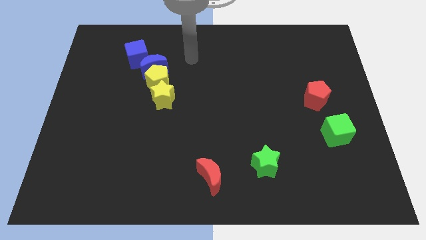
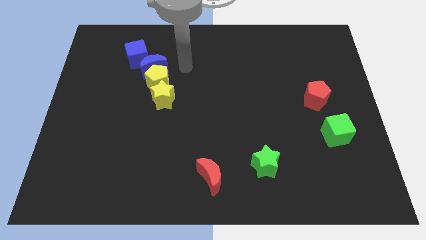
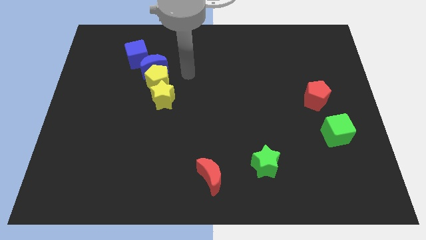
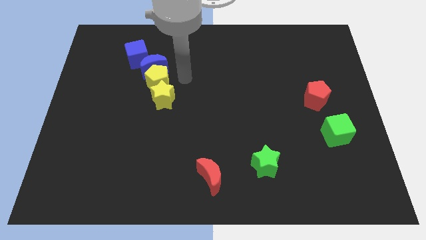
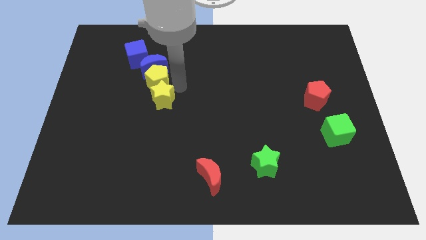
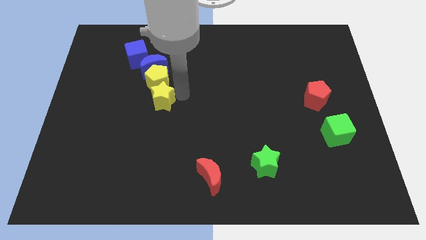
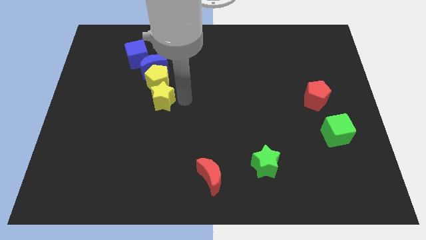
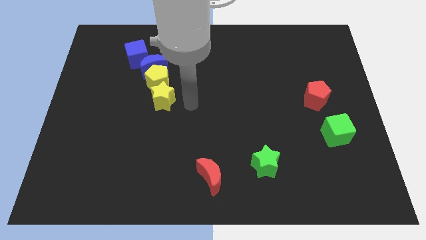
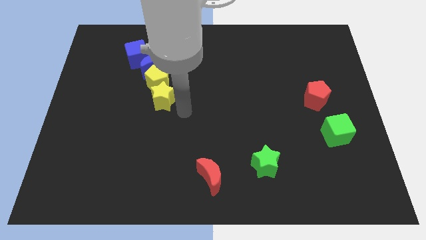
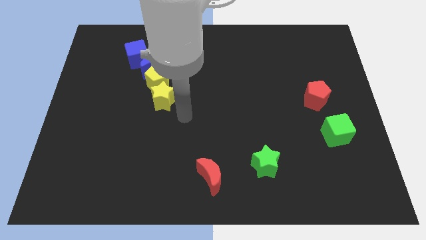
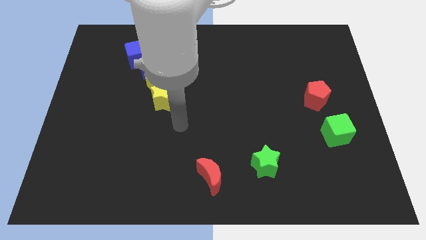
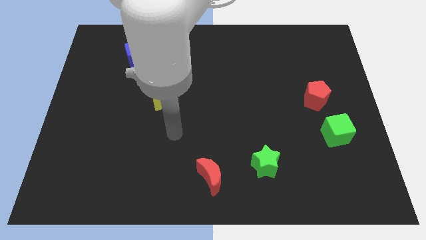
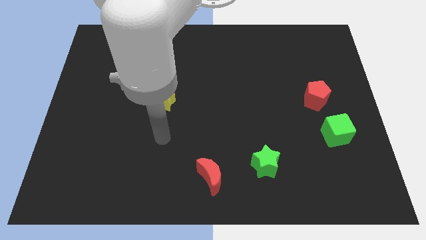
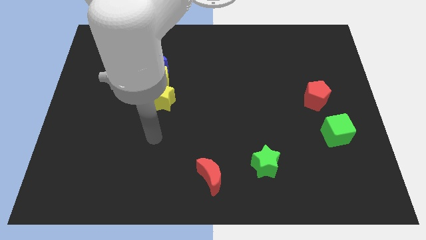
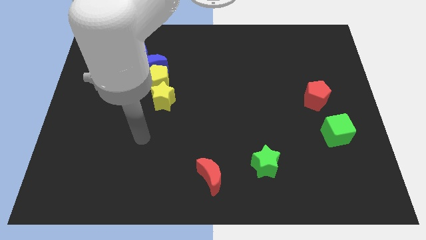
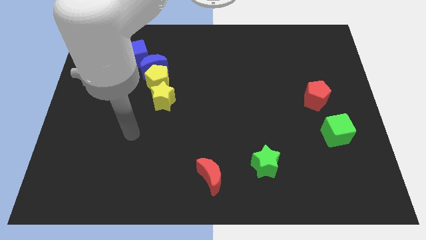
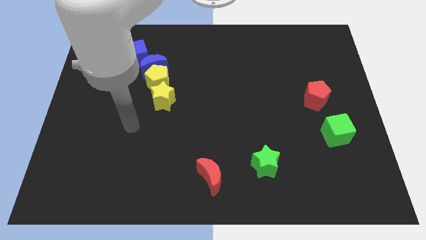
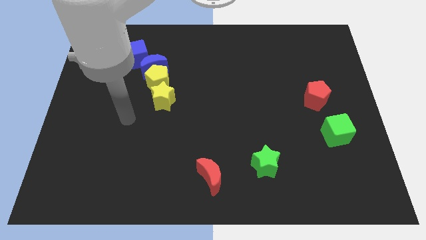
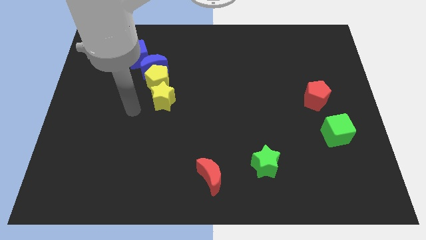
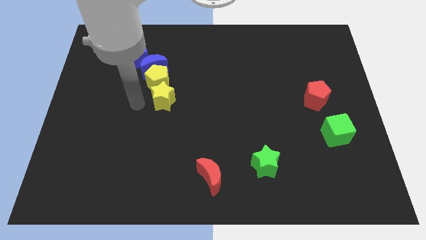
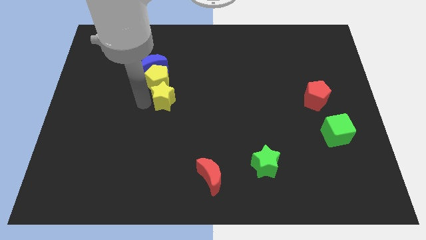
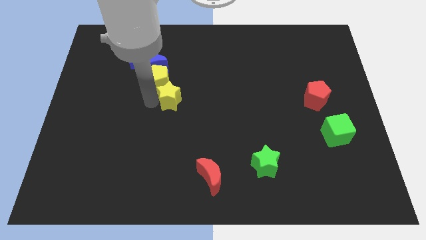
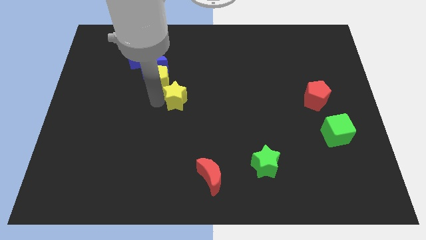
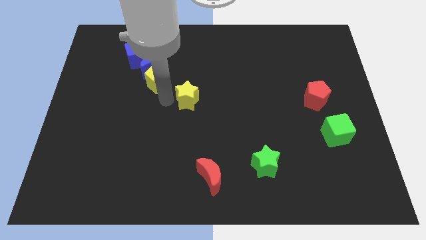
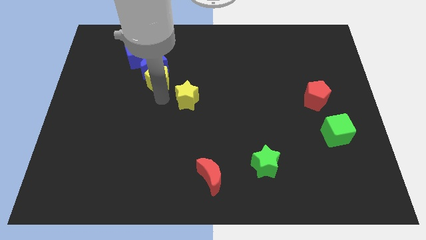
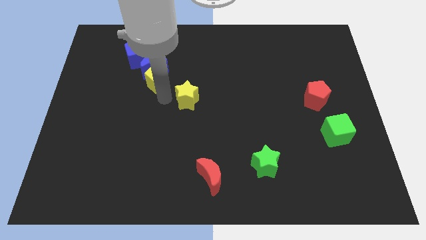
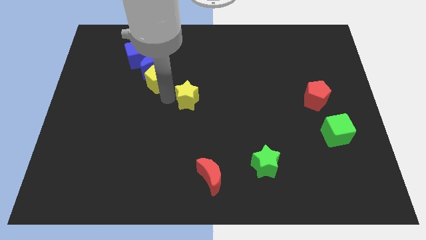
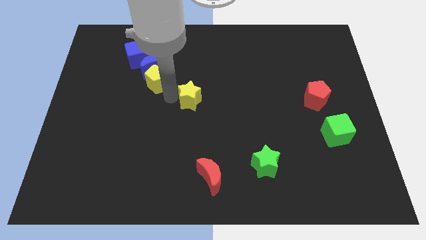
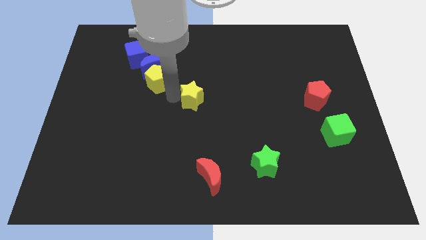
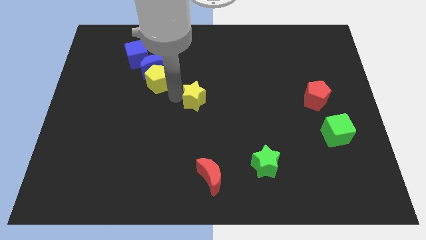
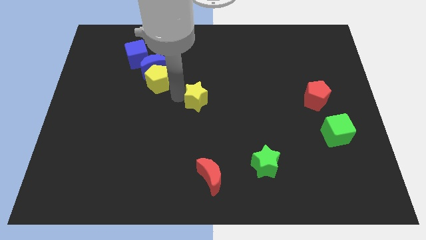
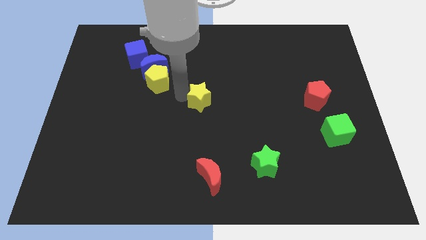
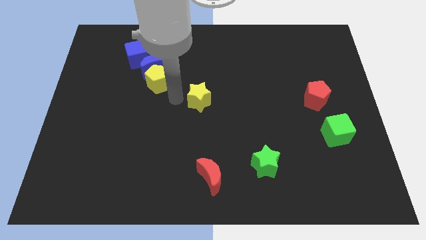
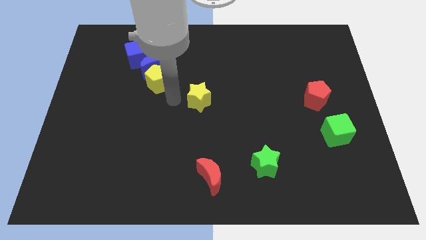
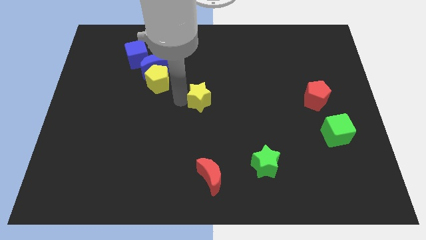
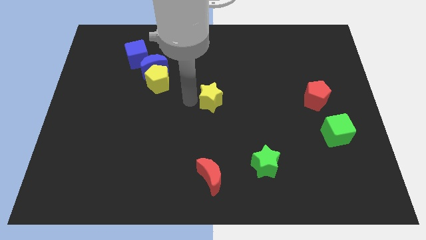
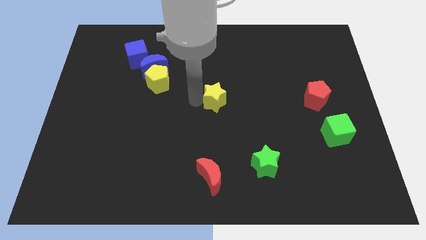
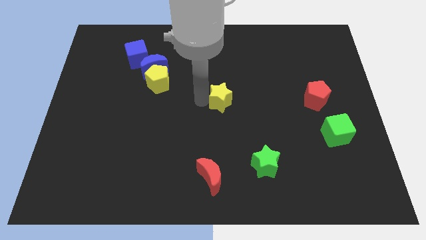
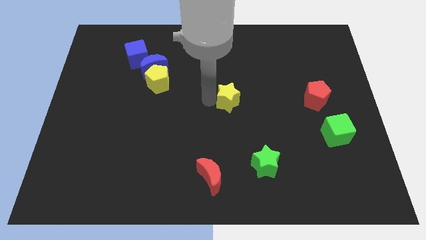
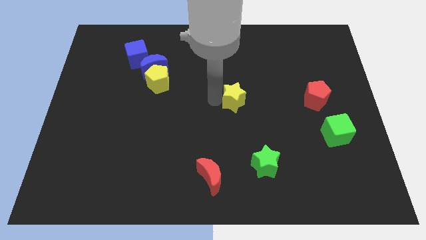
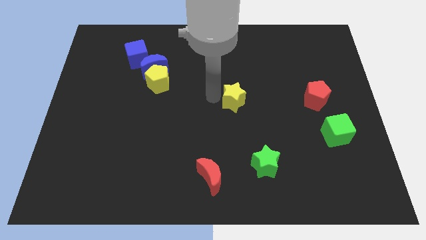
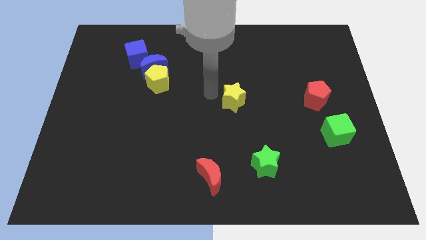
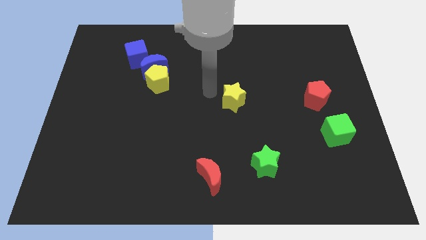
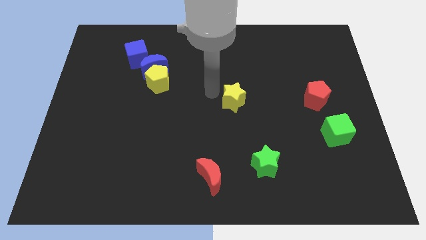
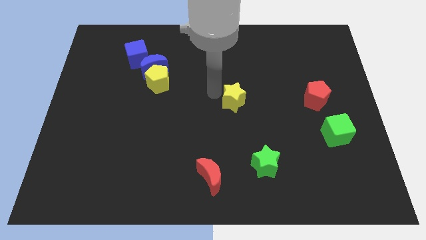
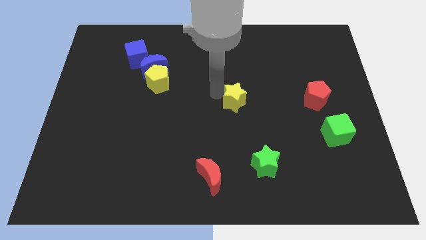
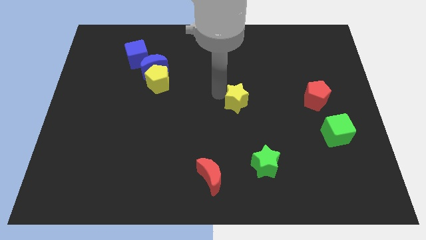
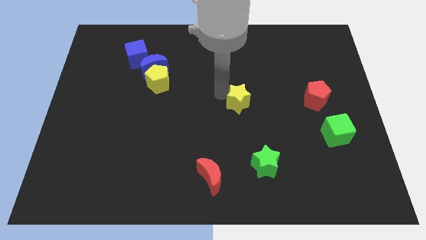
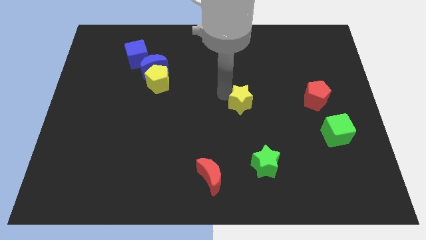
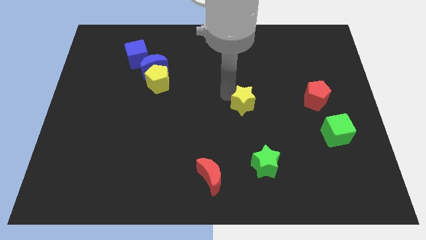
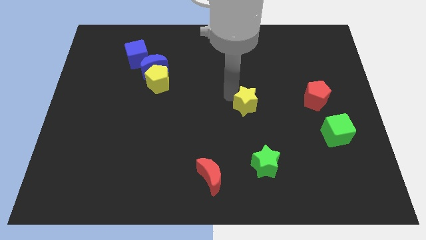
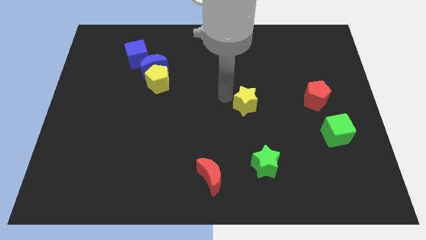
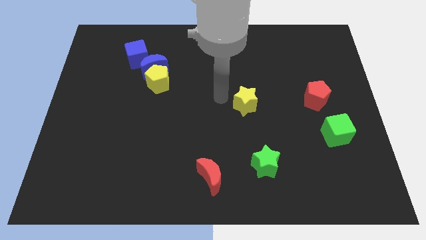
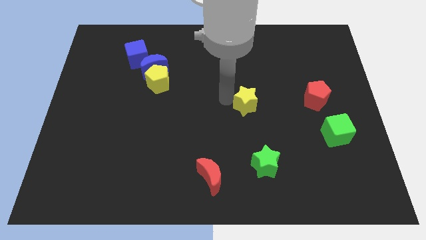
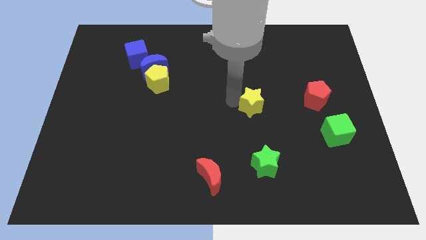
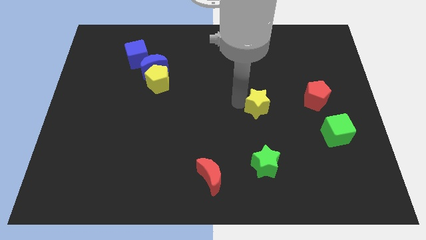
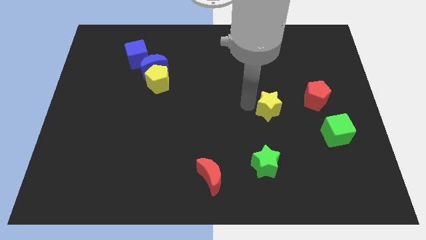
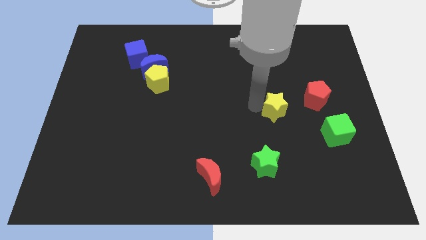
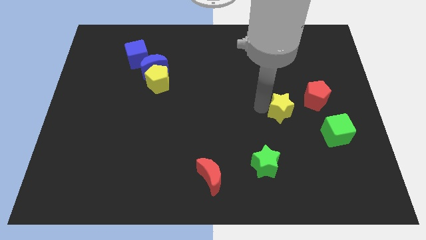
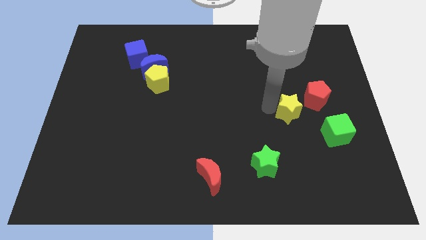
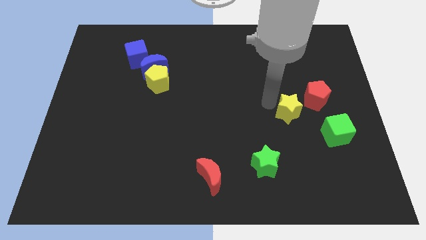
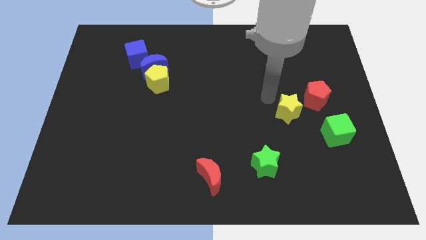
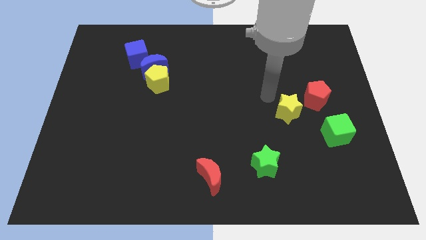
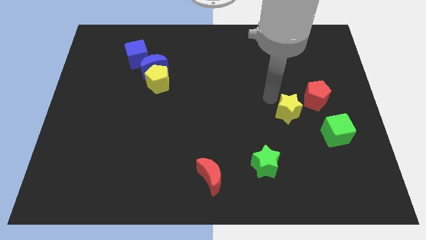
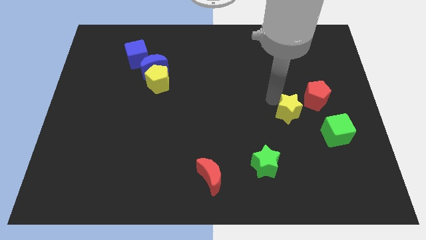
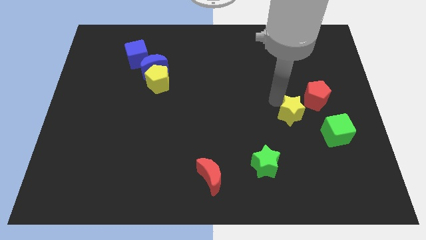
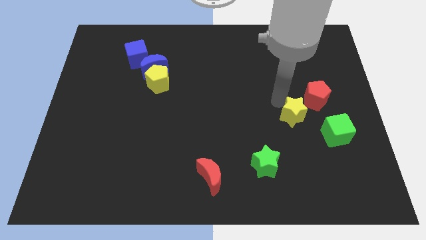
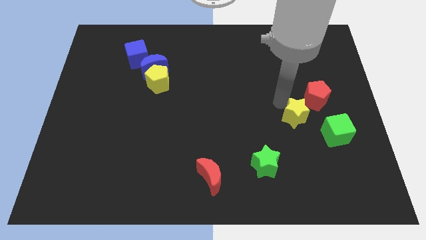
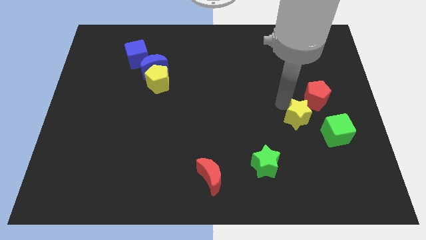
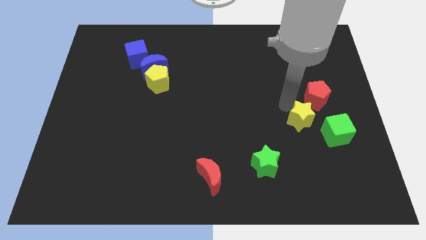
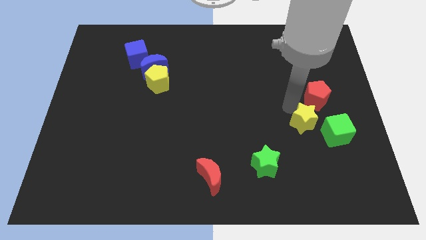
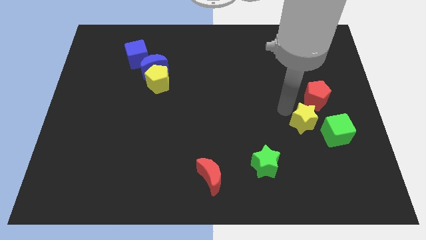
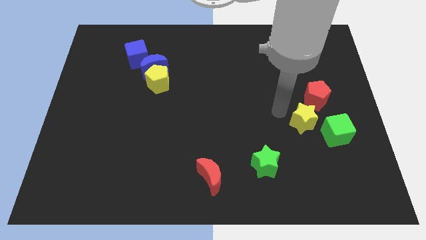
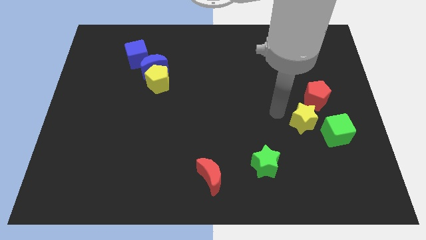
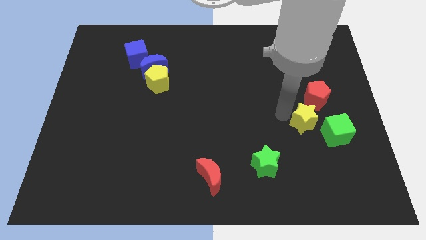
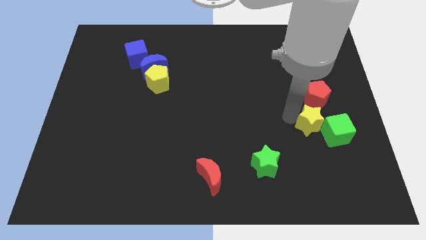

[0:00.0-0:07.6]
put the yellow star close to the green cube
